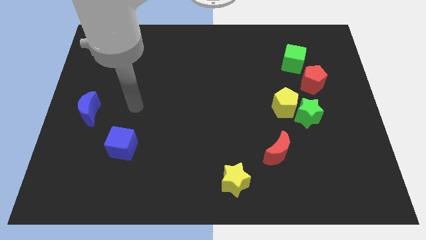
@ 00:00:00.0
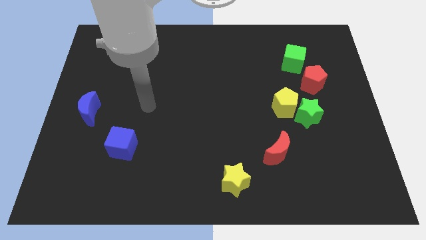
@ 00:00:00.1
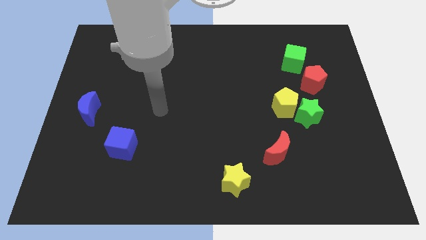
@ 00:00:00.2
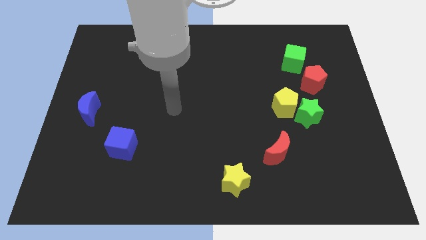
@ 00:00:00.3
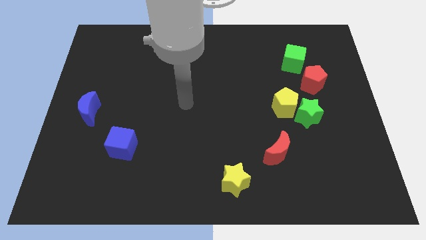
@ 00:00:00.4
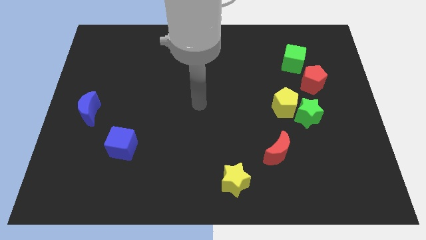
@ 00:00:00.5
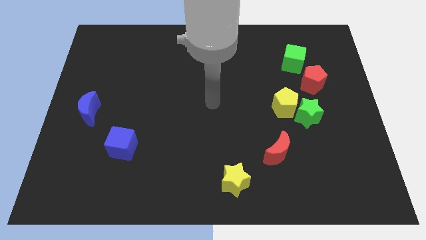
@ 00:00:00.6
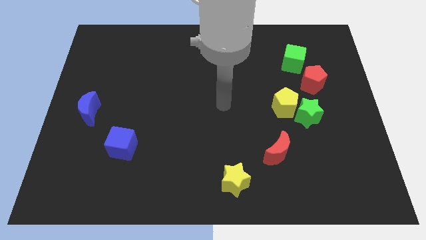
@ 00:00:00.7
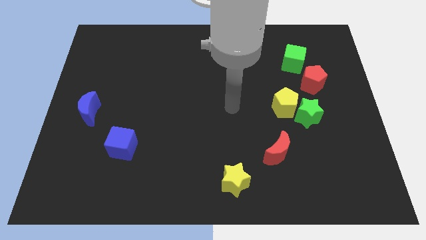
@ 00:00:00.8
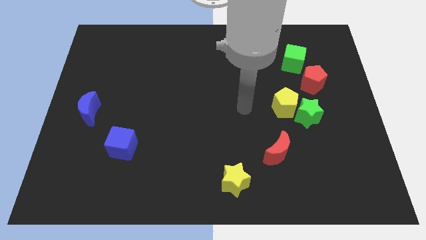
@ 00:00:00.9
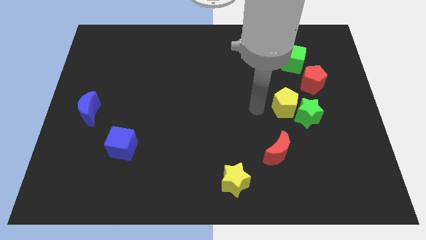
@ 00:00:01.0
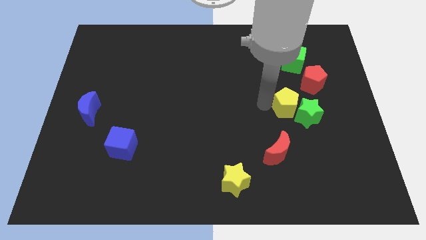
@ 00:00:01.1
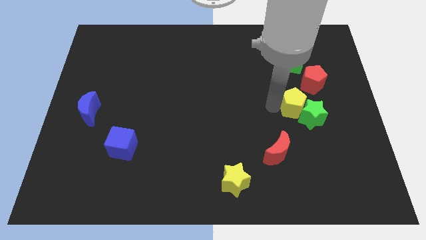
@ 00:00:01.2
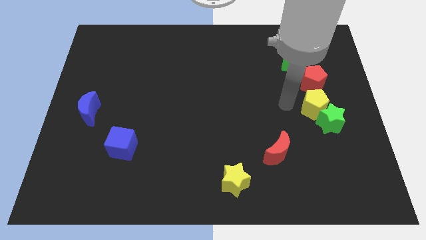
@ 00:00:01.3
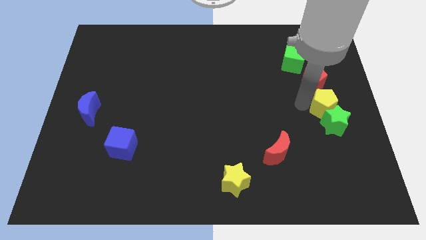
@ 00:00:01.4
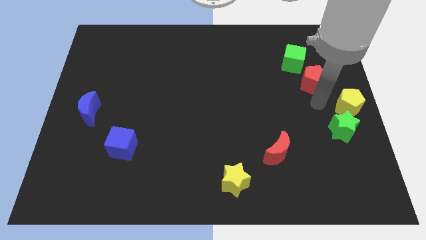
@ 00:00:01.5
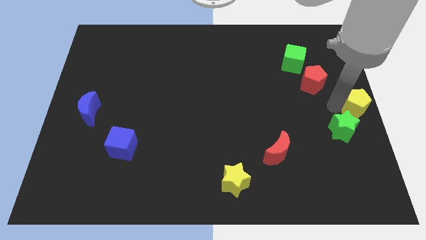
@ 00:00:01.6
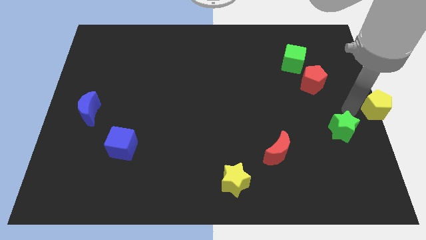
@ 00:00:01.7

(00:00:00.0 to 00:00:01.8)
separate the green star from the yellow pentagon

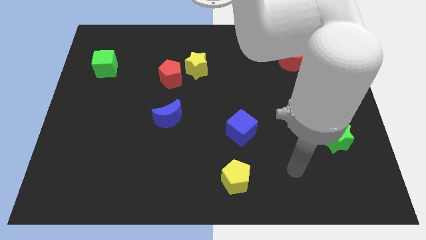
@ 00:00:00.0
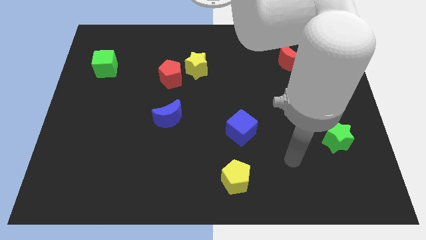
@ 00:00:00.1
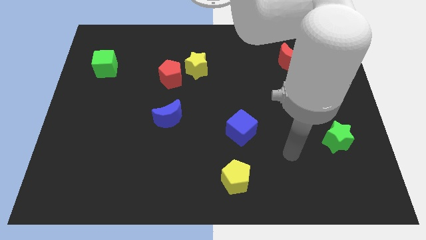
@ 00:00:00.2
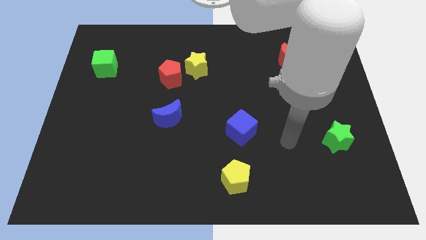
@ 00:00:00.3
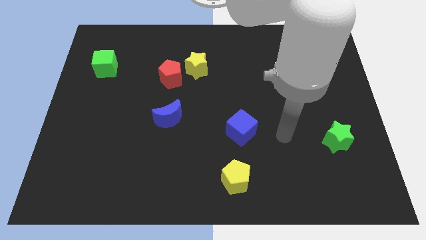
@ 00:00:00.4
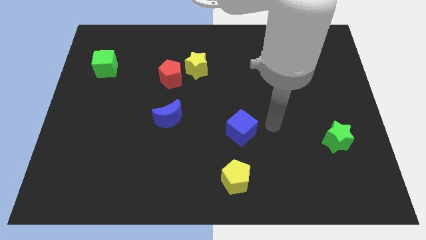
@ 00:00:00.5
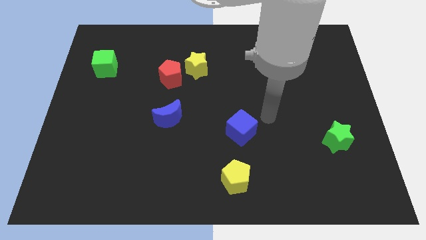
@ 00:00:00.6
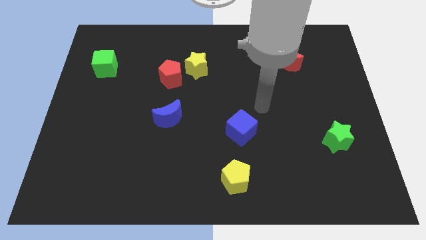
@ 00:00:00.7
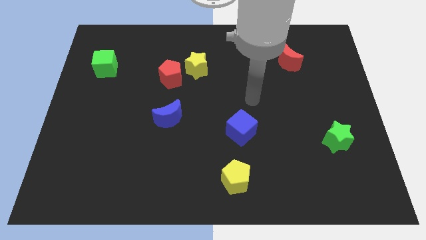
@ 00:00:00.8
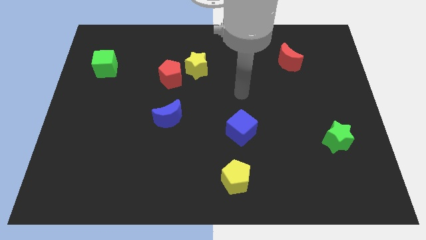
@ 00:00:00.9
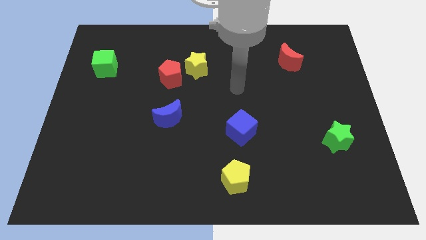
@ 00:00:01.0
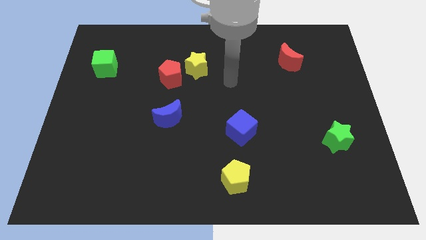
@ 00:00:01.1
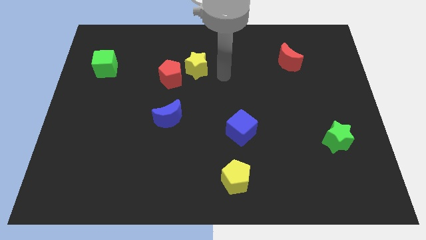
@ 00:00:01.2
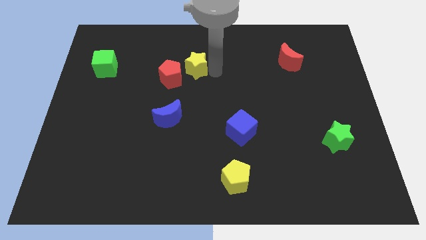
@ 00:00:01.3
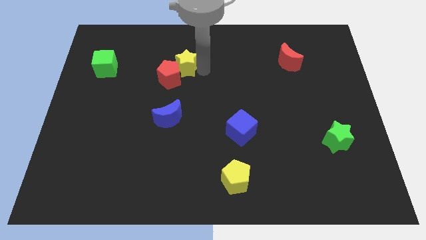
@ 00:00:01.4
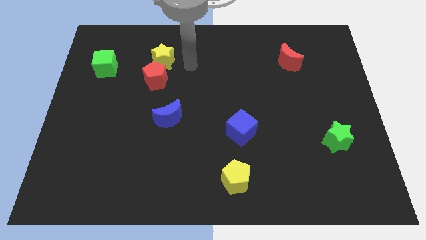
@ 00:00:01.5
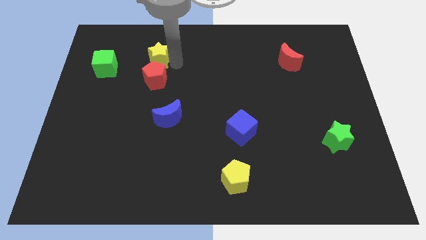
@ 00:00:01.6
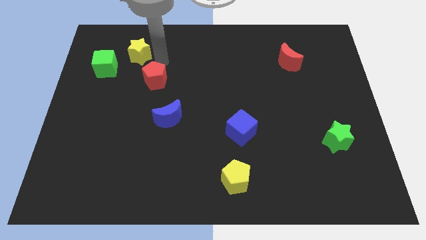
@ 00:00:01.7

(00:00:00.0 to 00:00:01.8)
pull the red pentagon apart from the yellow star

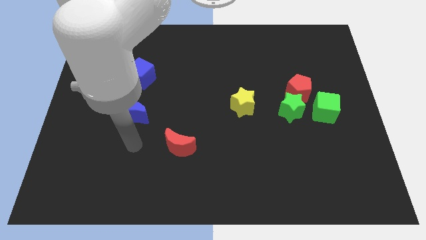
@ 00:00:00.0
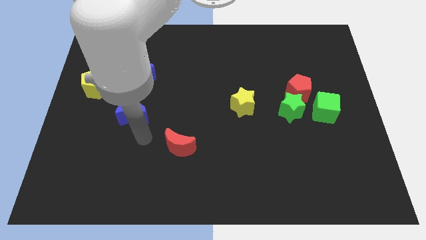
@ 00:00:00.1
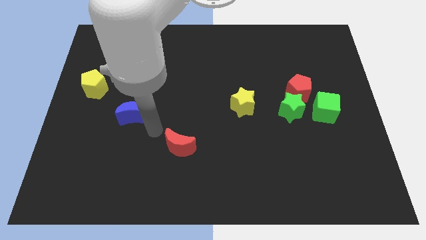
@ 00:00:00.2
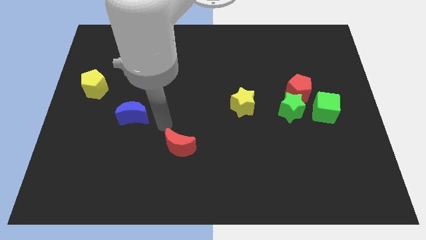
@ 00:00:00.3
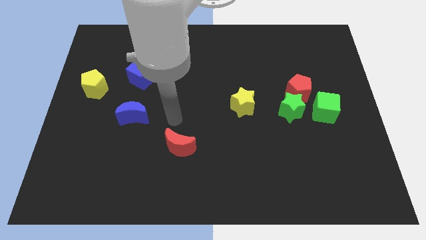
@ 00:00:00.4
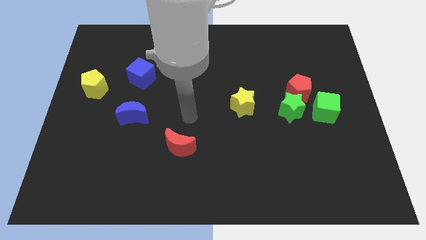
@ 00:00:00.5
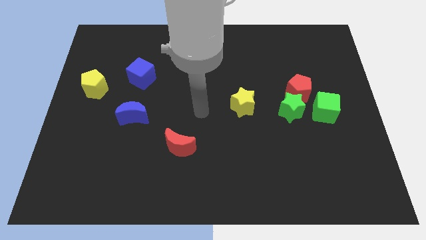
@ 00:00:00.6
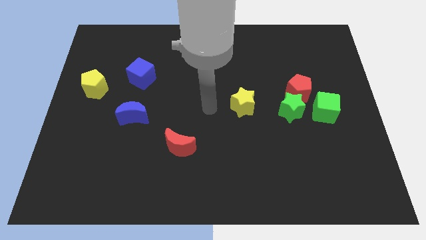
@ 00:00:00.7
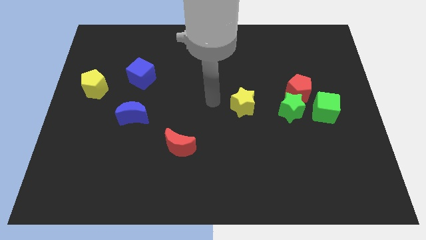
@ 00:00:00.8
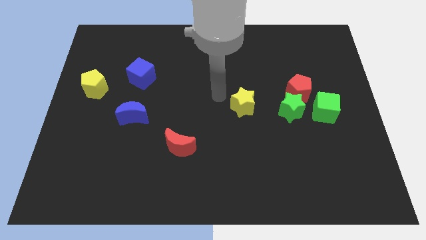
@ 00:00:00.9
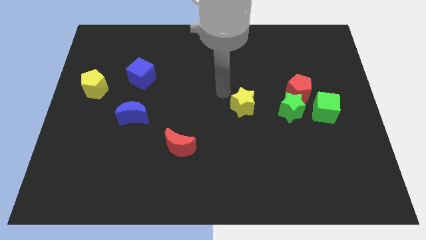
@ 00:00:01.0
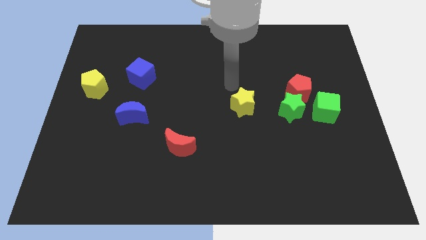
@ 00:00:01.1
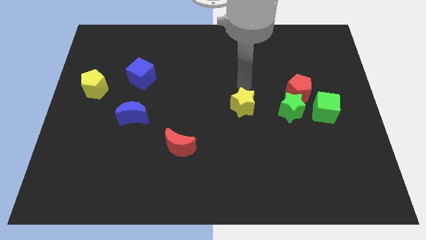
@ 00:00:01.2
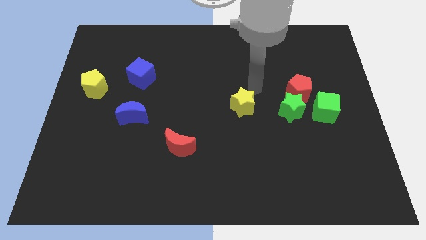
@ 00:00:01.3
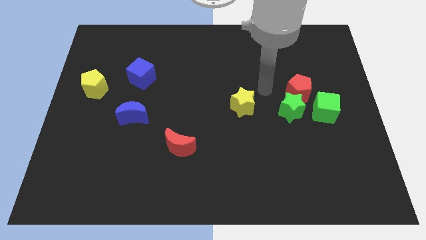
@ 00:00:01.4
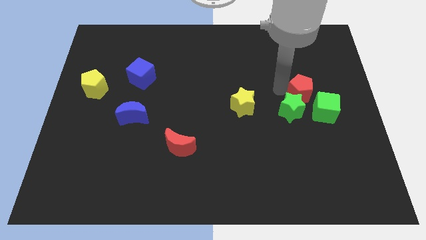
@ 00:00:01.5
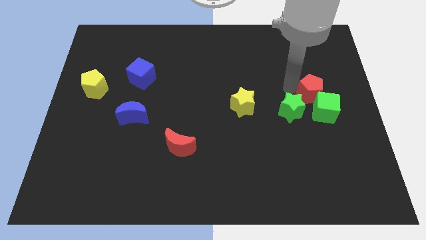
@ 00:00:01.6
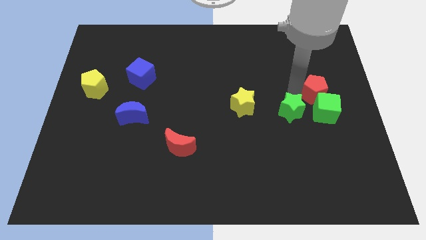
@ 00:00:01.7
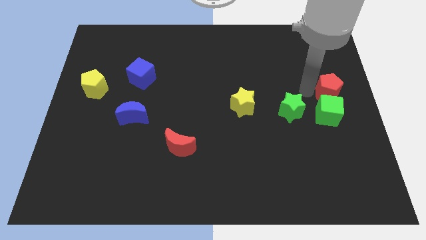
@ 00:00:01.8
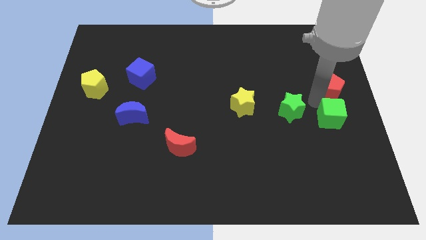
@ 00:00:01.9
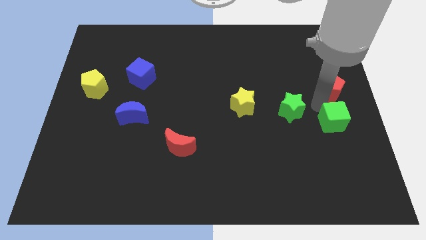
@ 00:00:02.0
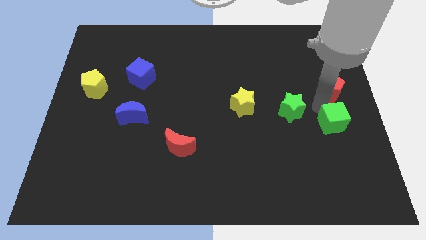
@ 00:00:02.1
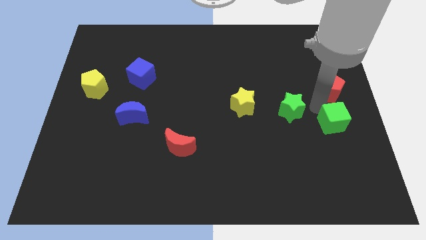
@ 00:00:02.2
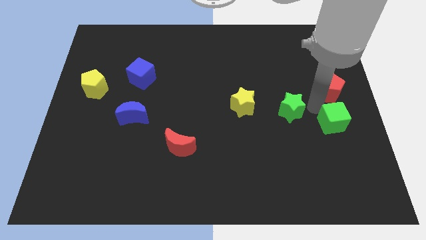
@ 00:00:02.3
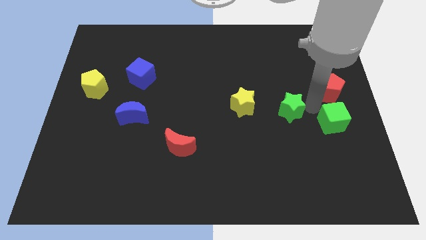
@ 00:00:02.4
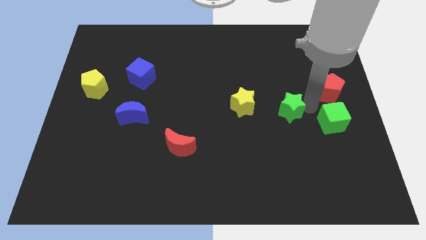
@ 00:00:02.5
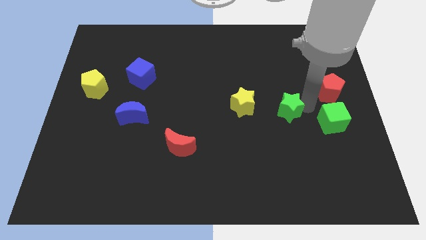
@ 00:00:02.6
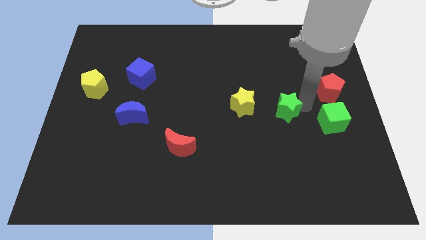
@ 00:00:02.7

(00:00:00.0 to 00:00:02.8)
move the green star away from the red pentagon and green cube

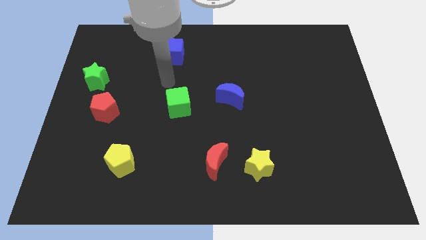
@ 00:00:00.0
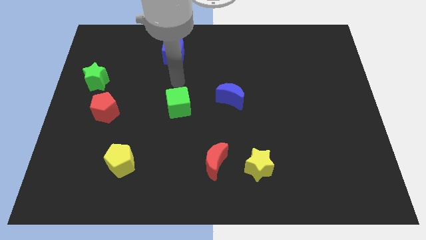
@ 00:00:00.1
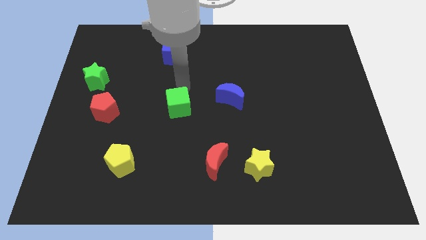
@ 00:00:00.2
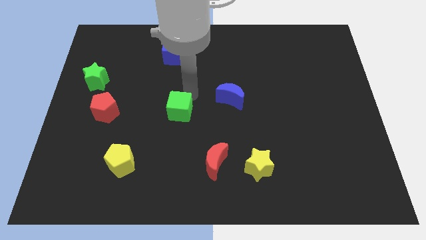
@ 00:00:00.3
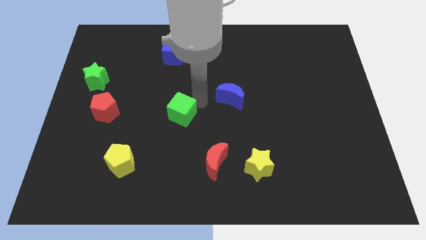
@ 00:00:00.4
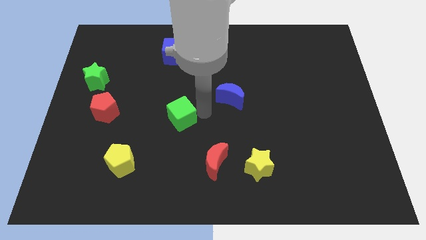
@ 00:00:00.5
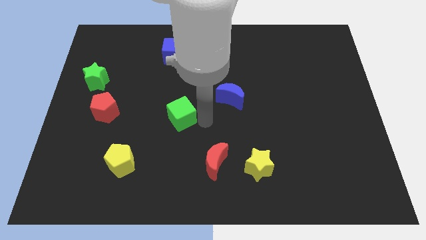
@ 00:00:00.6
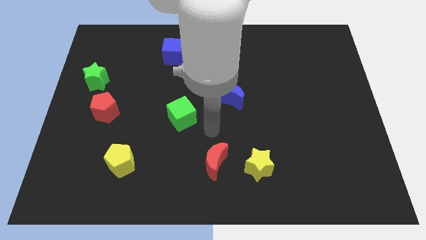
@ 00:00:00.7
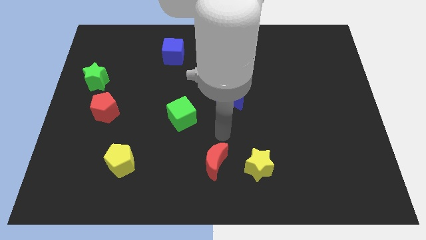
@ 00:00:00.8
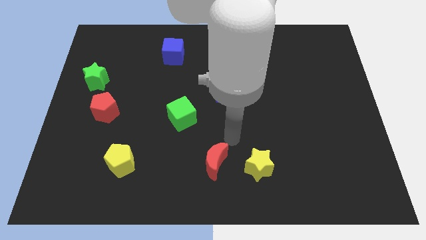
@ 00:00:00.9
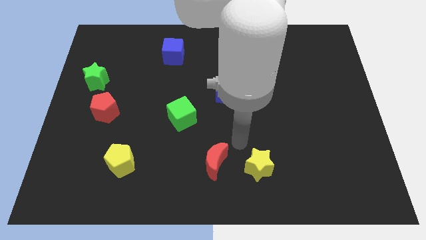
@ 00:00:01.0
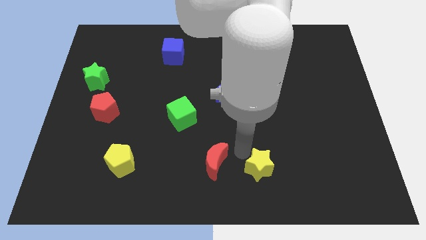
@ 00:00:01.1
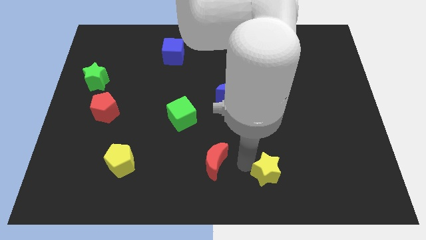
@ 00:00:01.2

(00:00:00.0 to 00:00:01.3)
pull the red moon apart from the yellow star

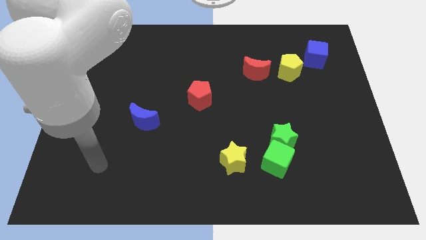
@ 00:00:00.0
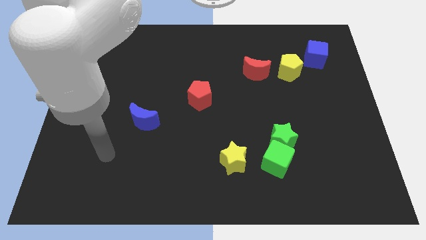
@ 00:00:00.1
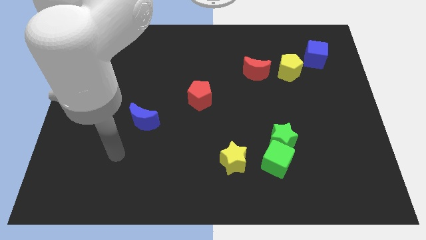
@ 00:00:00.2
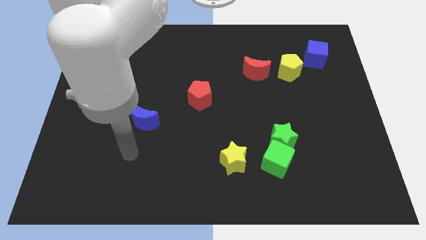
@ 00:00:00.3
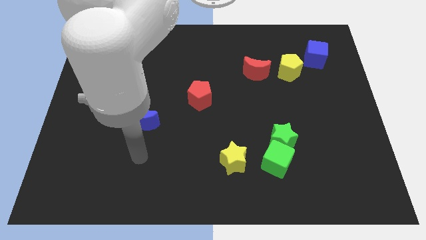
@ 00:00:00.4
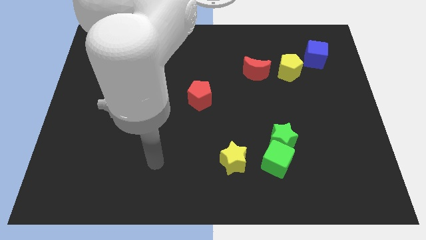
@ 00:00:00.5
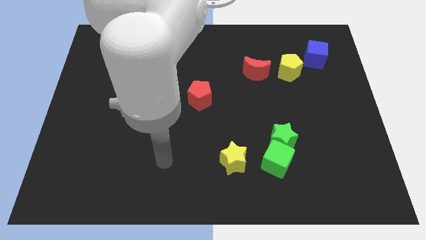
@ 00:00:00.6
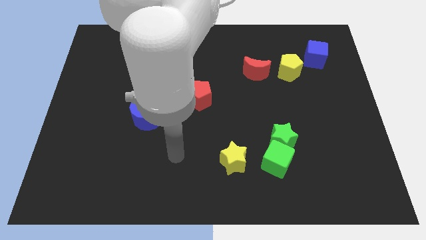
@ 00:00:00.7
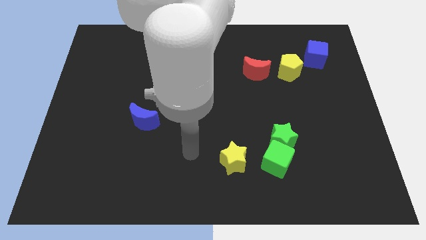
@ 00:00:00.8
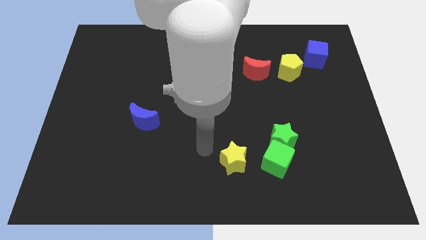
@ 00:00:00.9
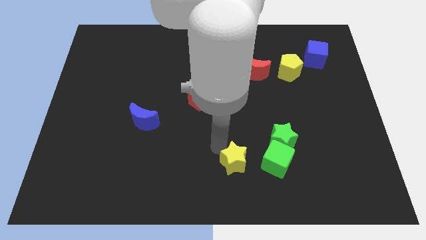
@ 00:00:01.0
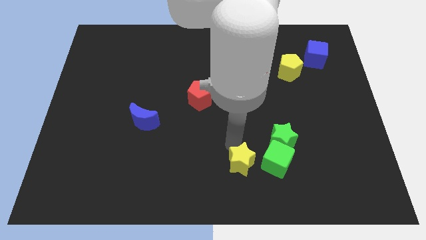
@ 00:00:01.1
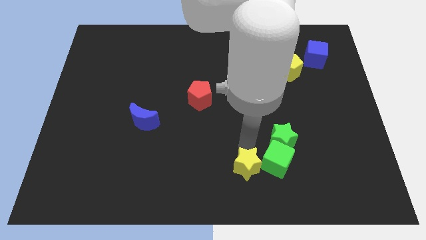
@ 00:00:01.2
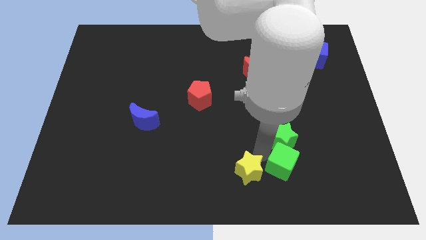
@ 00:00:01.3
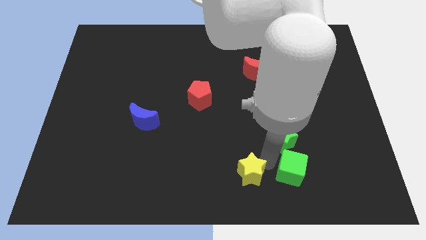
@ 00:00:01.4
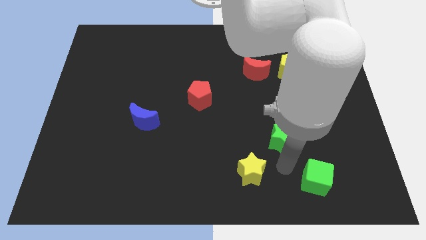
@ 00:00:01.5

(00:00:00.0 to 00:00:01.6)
pull the green star apart from the green cube
